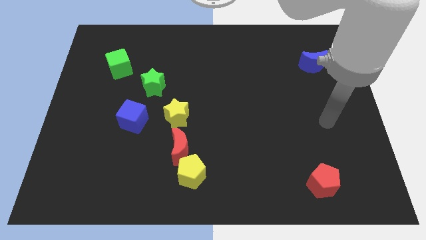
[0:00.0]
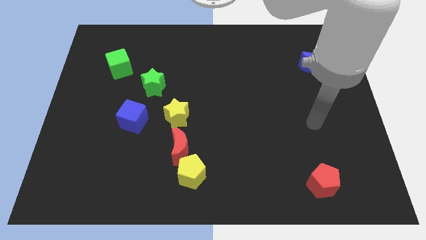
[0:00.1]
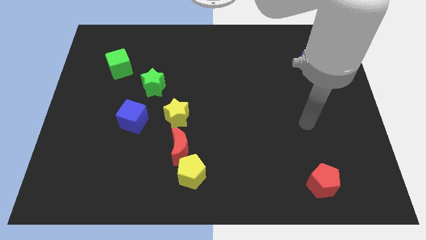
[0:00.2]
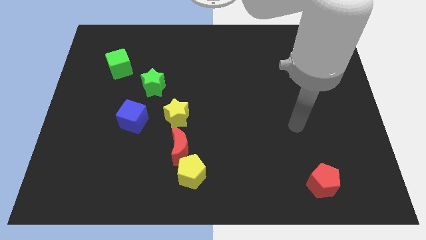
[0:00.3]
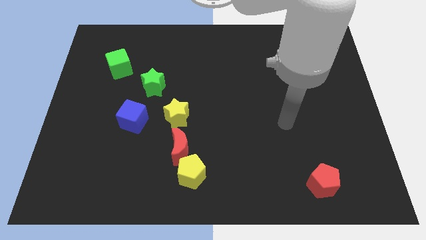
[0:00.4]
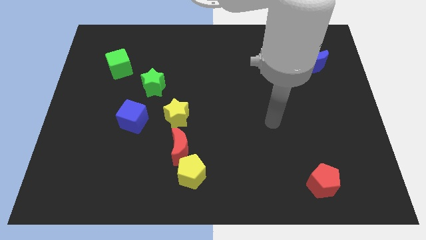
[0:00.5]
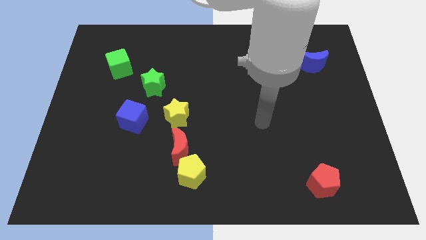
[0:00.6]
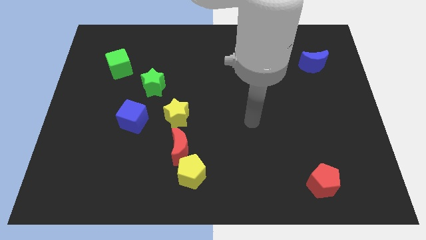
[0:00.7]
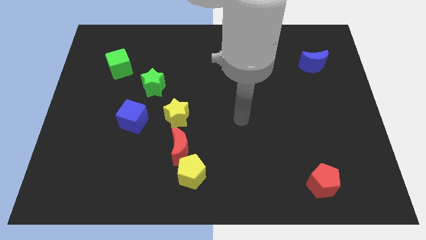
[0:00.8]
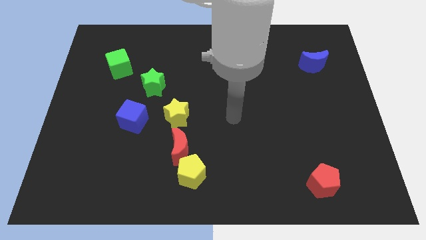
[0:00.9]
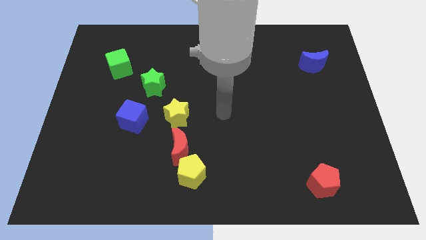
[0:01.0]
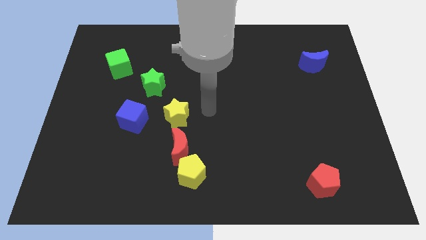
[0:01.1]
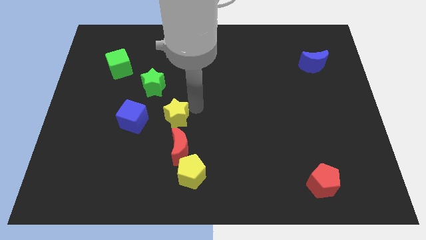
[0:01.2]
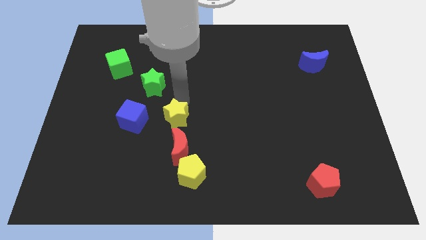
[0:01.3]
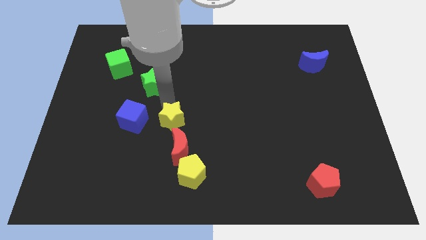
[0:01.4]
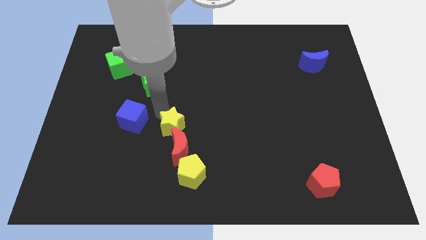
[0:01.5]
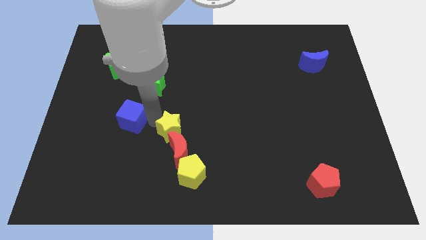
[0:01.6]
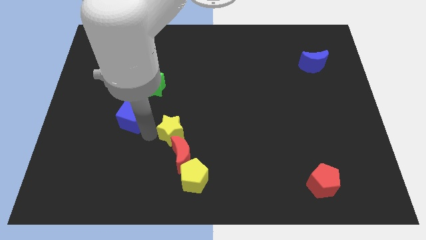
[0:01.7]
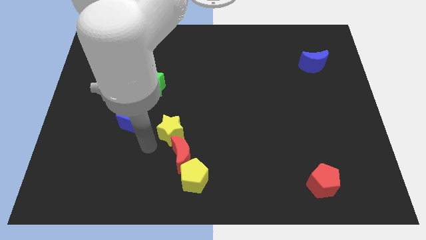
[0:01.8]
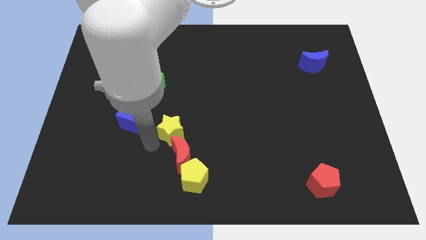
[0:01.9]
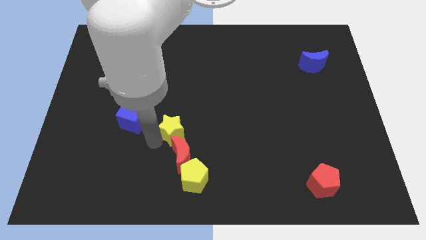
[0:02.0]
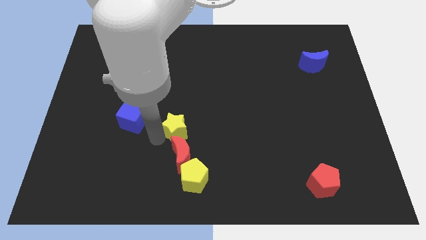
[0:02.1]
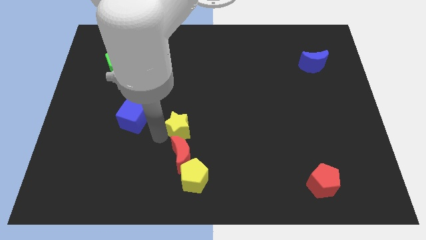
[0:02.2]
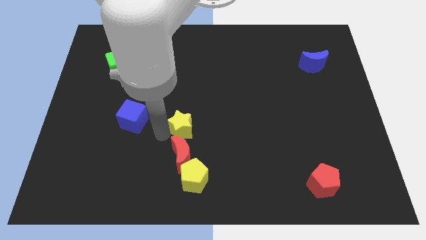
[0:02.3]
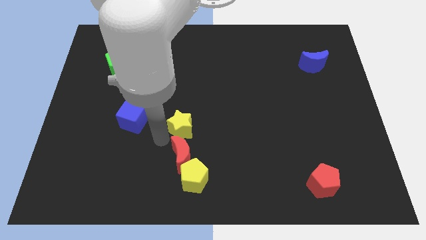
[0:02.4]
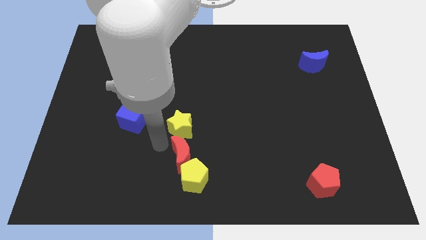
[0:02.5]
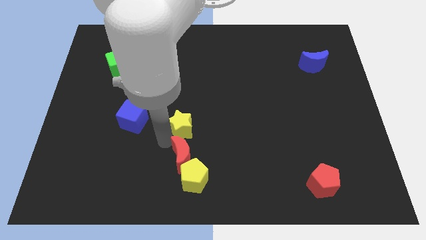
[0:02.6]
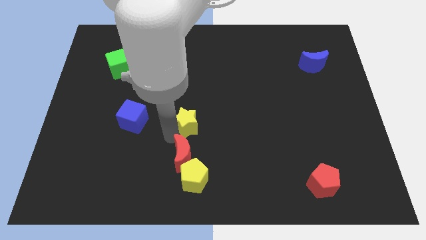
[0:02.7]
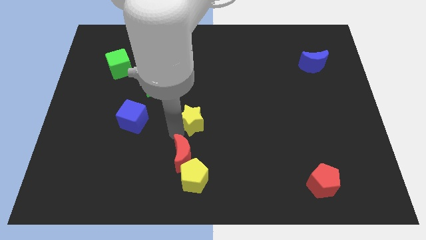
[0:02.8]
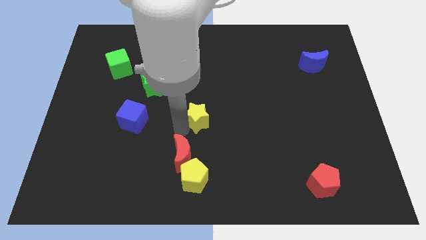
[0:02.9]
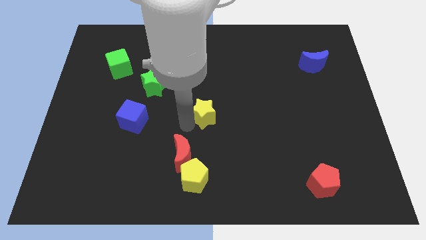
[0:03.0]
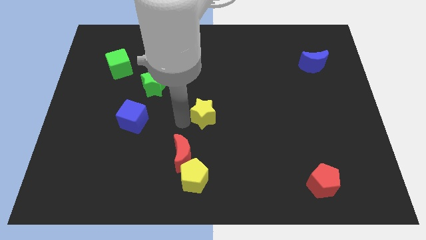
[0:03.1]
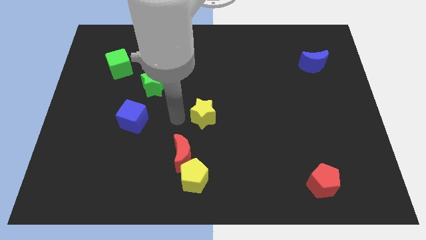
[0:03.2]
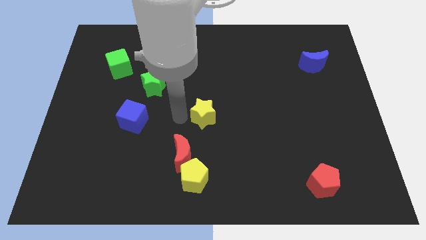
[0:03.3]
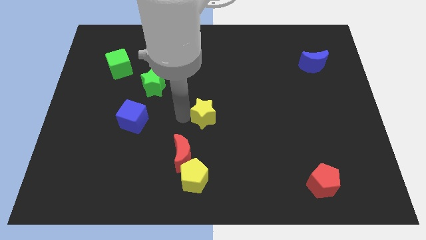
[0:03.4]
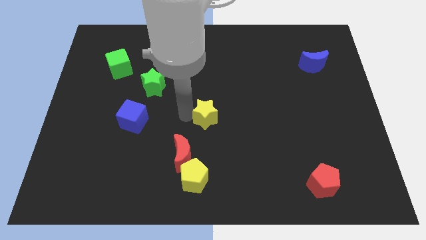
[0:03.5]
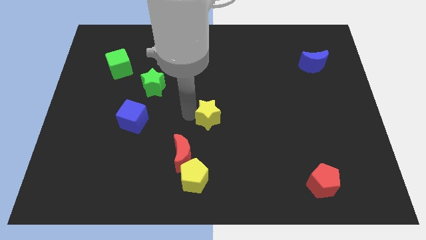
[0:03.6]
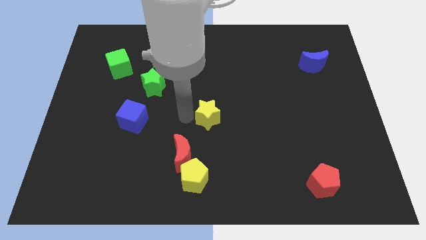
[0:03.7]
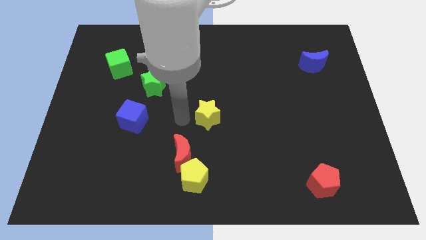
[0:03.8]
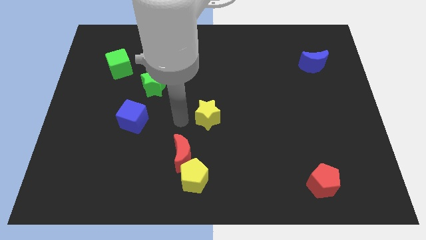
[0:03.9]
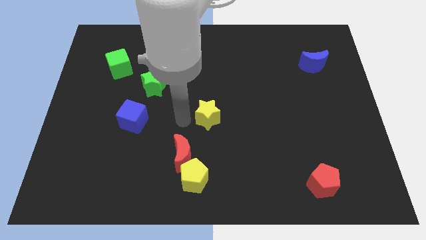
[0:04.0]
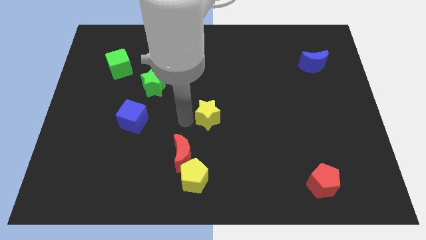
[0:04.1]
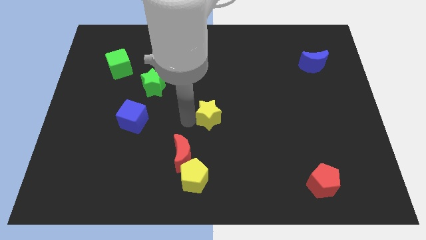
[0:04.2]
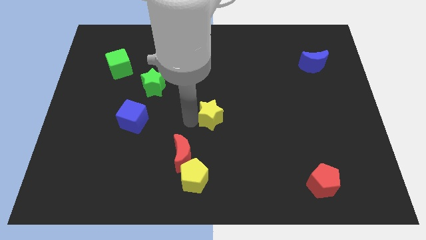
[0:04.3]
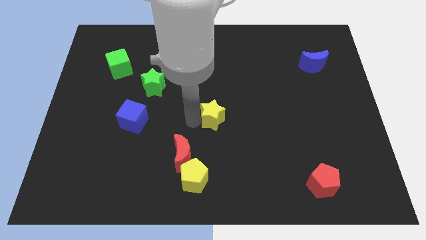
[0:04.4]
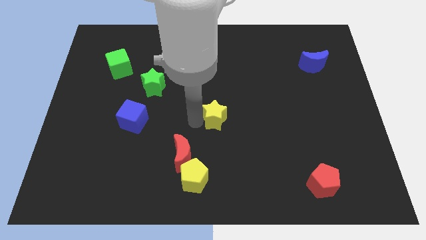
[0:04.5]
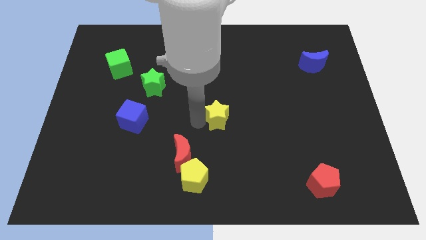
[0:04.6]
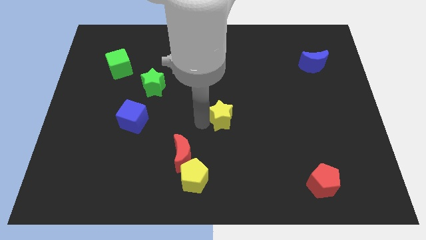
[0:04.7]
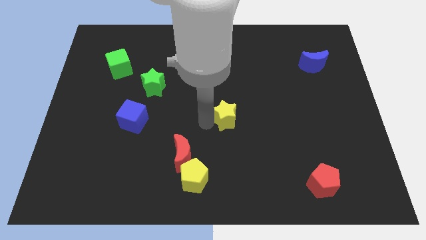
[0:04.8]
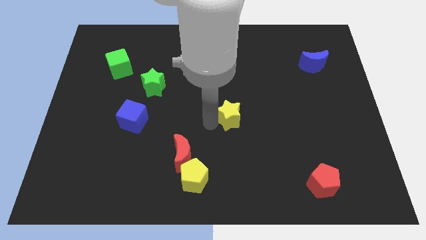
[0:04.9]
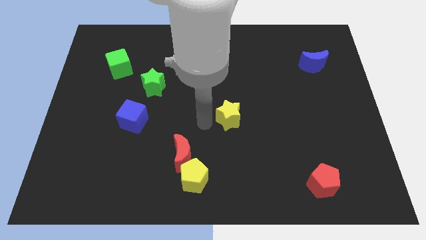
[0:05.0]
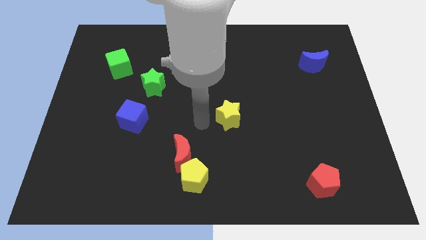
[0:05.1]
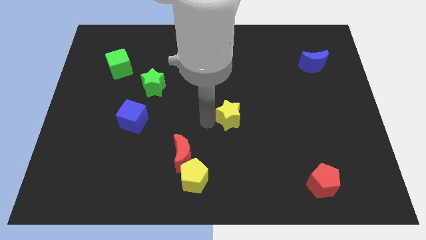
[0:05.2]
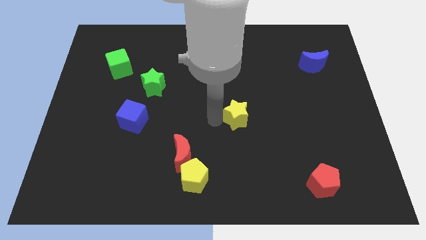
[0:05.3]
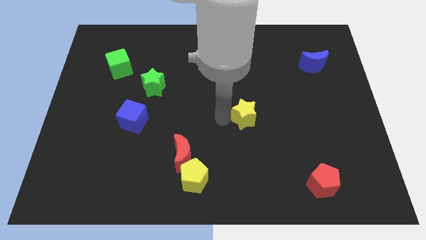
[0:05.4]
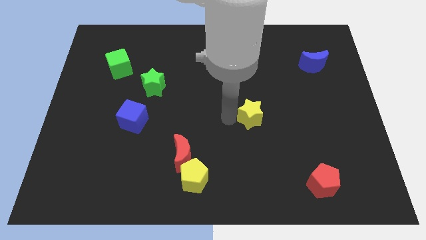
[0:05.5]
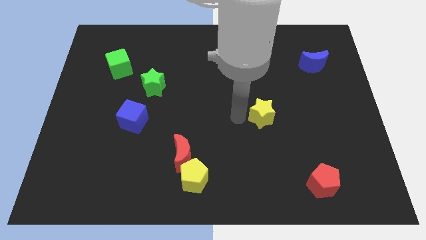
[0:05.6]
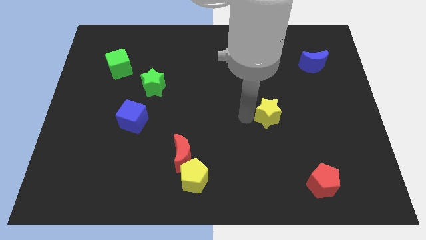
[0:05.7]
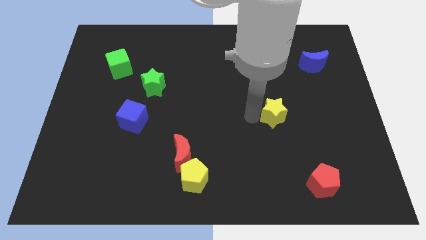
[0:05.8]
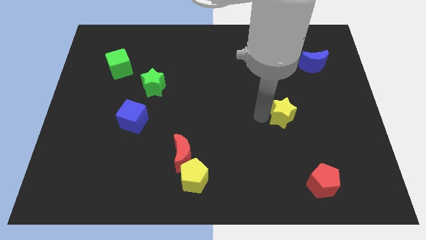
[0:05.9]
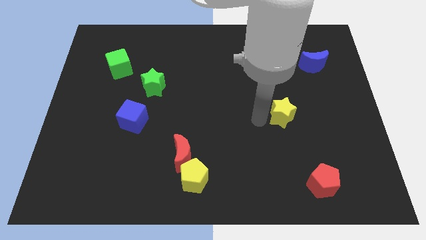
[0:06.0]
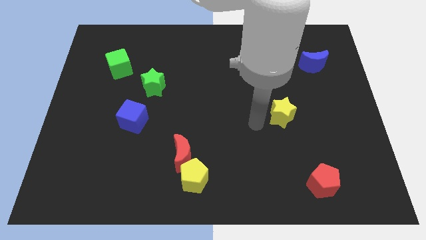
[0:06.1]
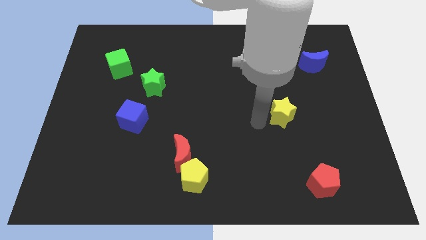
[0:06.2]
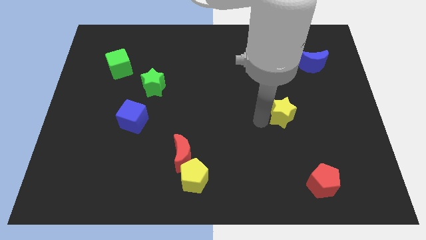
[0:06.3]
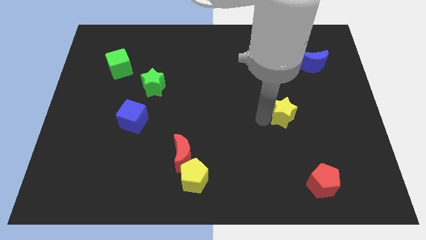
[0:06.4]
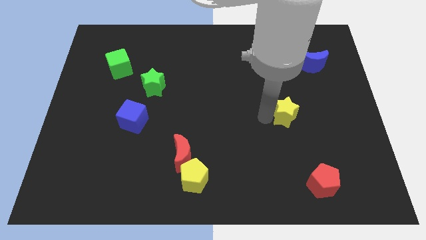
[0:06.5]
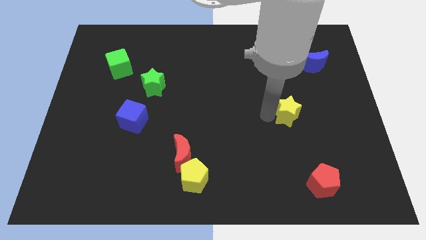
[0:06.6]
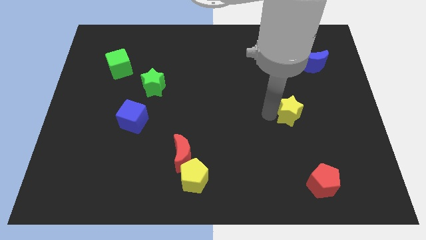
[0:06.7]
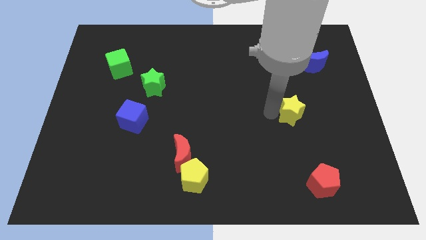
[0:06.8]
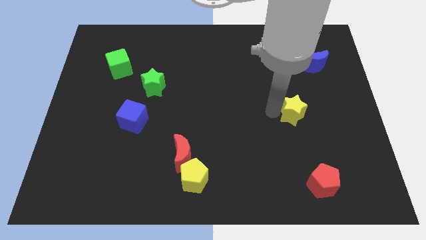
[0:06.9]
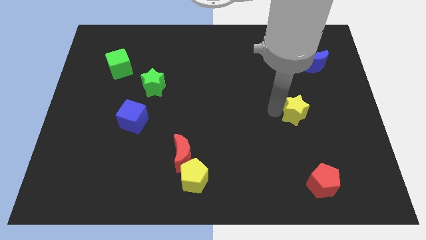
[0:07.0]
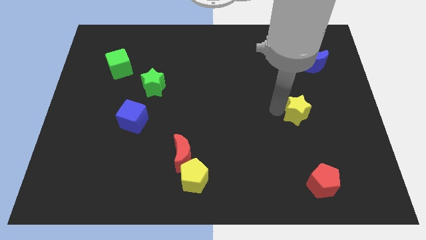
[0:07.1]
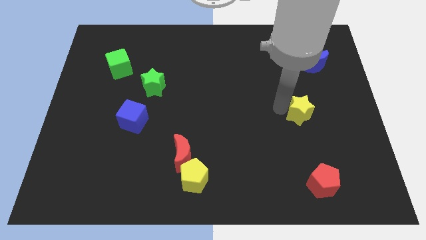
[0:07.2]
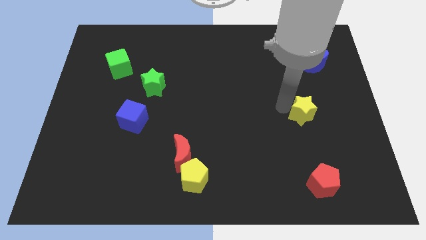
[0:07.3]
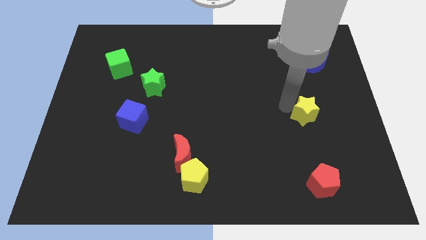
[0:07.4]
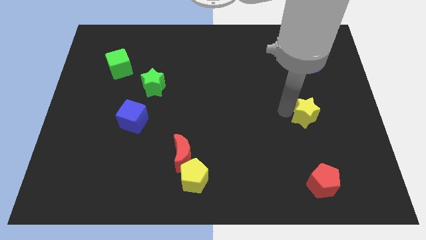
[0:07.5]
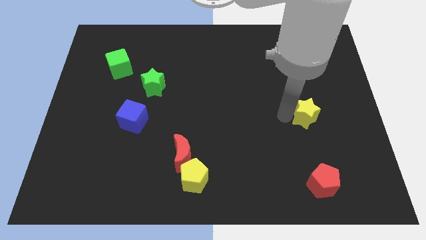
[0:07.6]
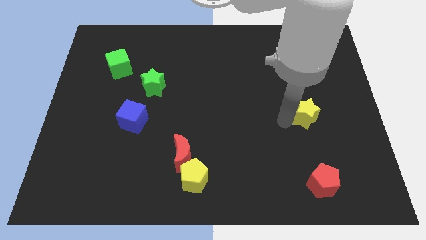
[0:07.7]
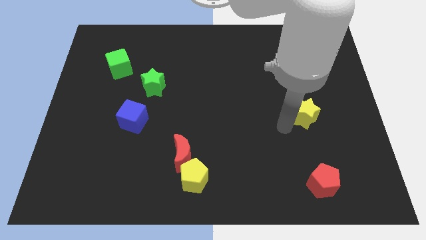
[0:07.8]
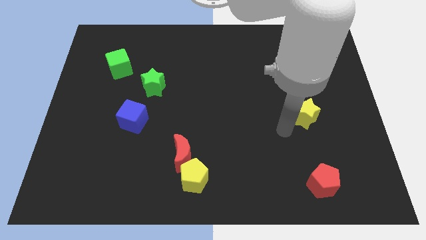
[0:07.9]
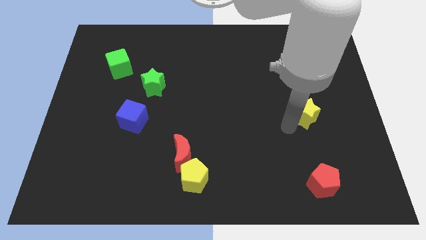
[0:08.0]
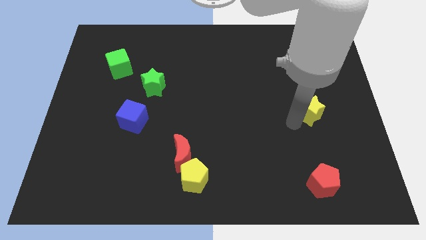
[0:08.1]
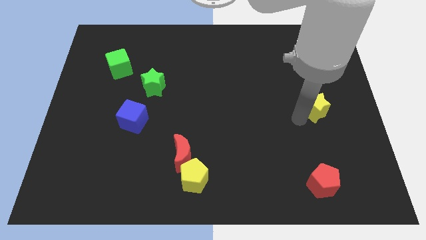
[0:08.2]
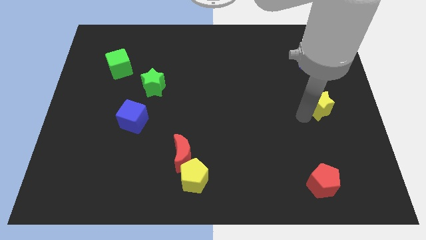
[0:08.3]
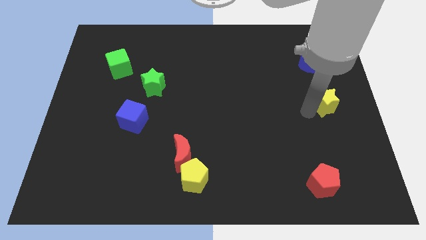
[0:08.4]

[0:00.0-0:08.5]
move the yellow star to the center right
